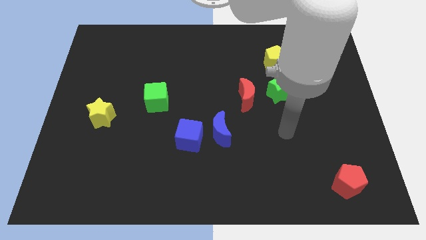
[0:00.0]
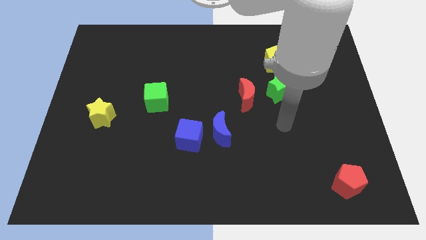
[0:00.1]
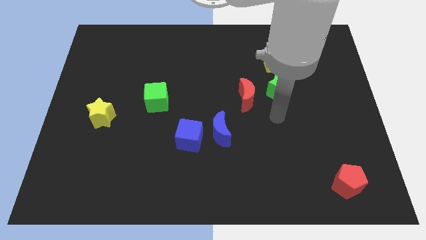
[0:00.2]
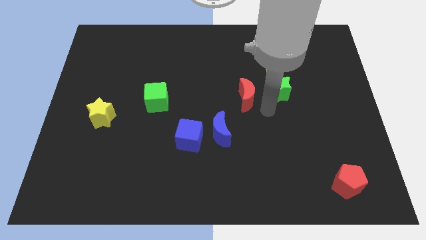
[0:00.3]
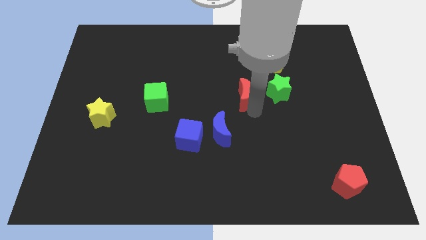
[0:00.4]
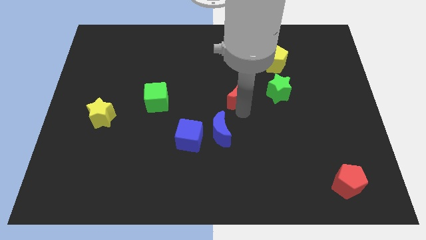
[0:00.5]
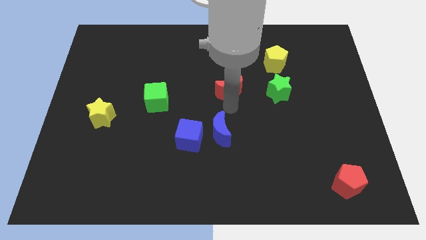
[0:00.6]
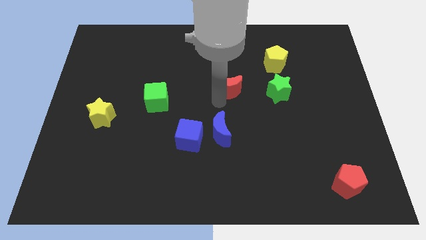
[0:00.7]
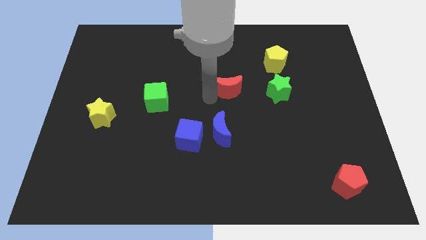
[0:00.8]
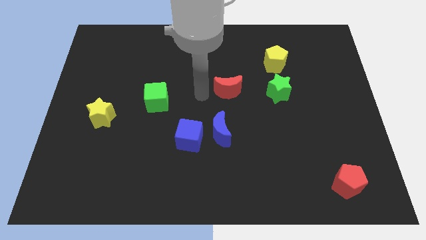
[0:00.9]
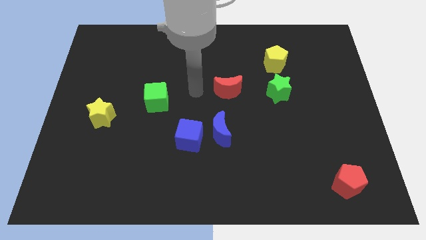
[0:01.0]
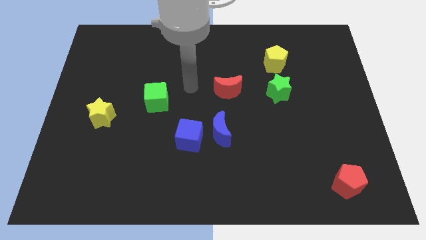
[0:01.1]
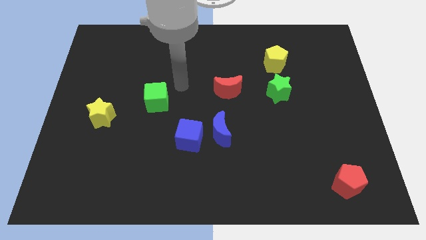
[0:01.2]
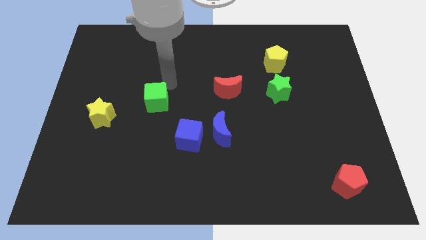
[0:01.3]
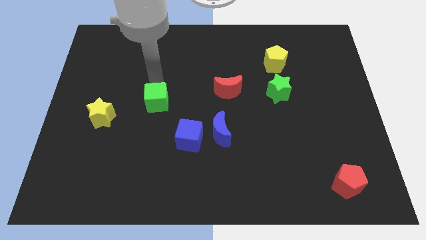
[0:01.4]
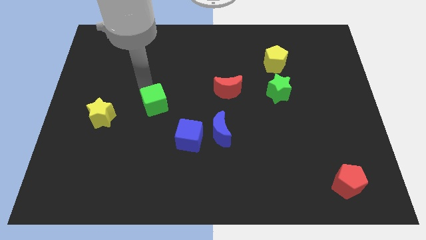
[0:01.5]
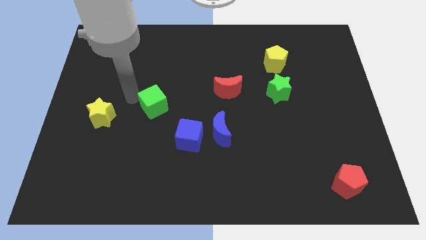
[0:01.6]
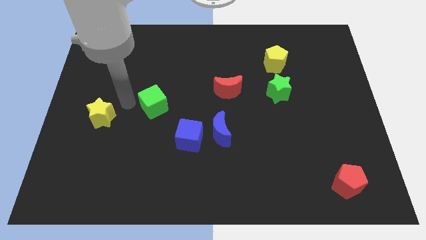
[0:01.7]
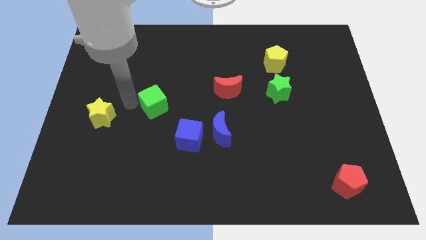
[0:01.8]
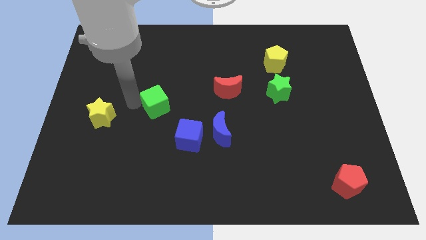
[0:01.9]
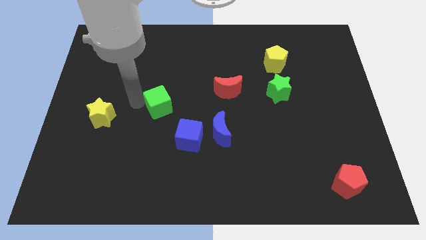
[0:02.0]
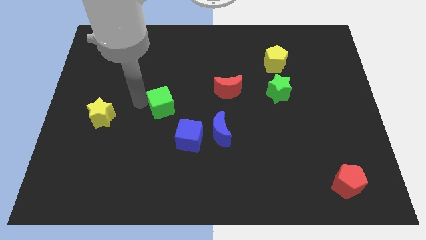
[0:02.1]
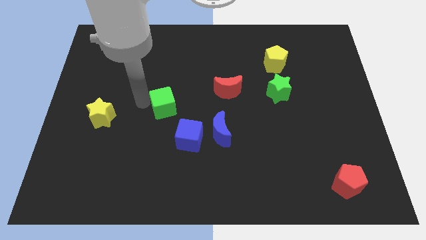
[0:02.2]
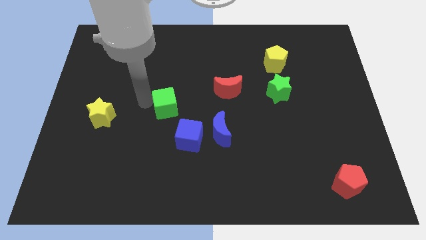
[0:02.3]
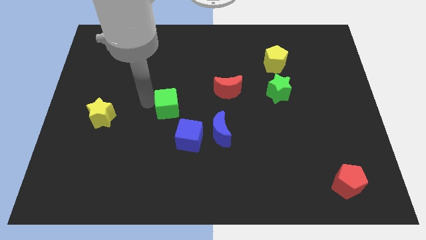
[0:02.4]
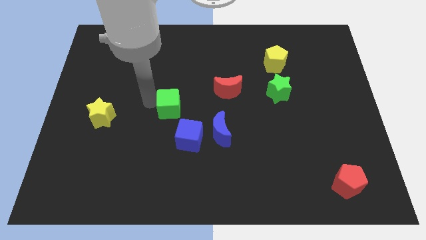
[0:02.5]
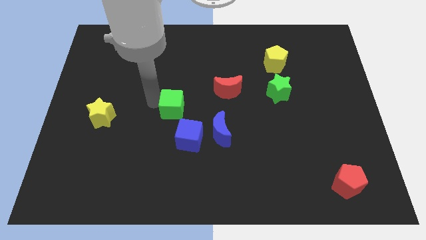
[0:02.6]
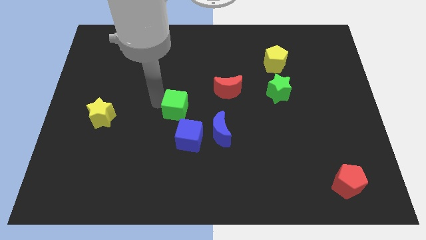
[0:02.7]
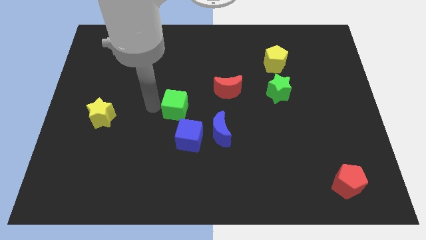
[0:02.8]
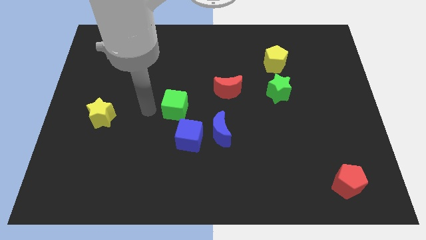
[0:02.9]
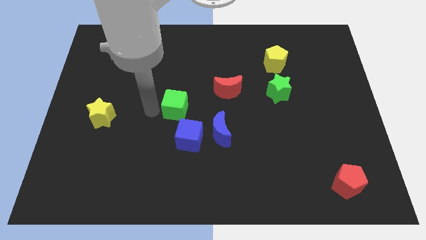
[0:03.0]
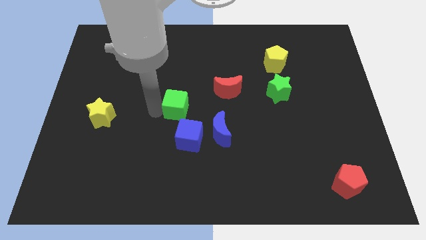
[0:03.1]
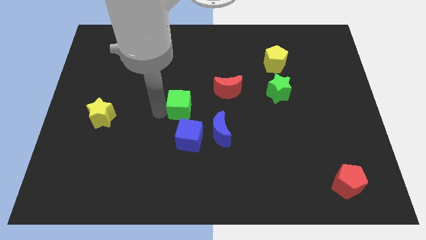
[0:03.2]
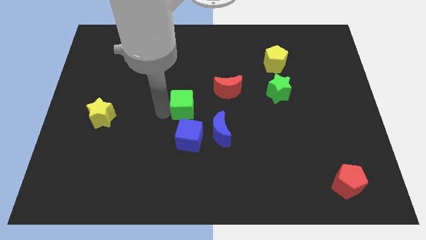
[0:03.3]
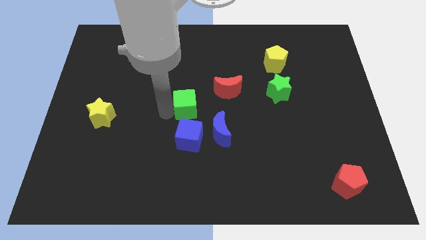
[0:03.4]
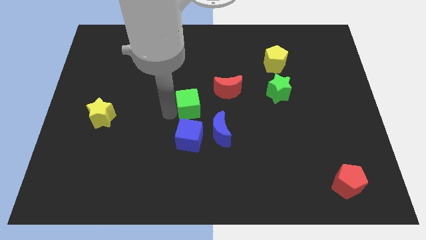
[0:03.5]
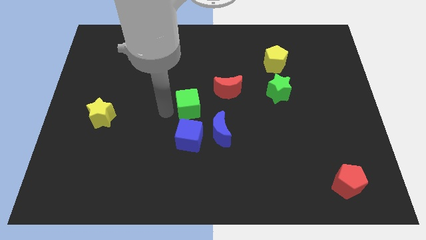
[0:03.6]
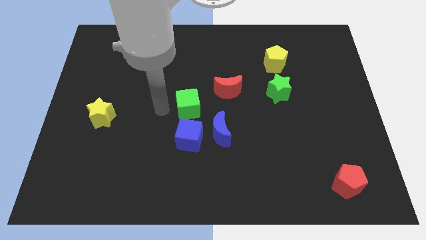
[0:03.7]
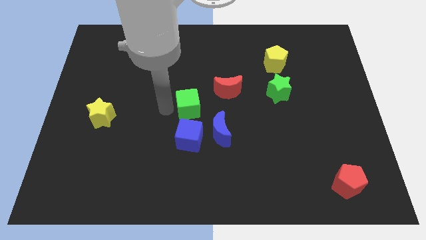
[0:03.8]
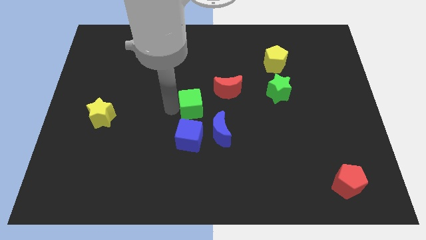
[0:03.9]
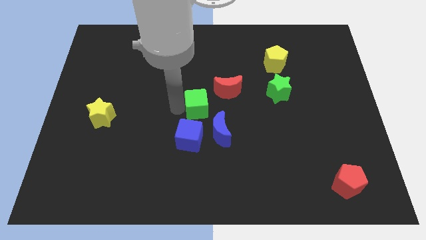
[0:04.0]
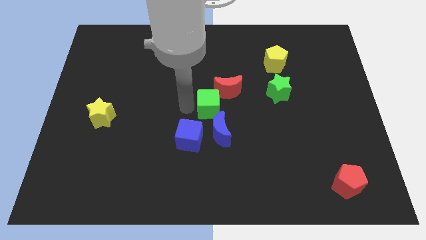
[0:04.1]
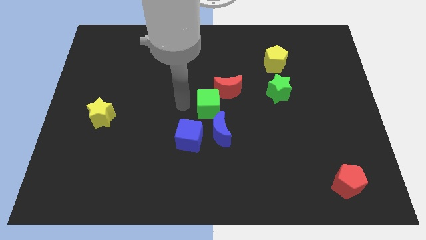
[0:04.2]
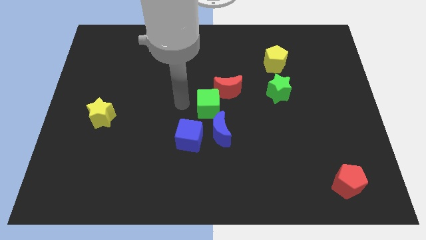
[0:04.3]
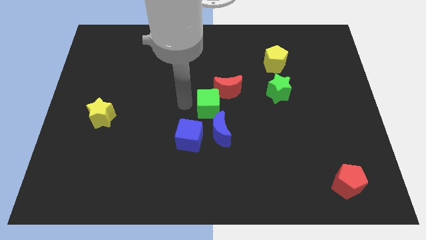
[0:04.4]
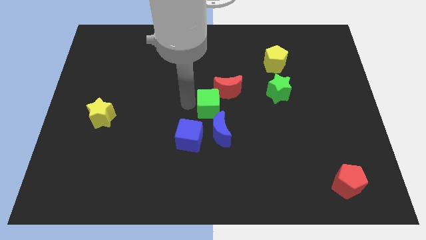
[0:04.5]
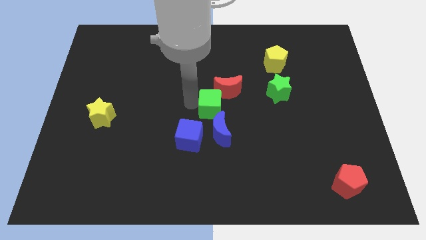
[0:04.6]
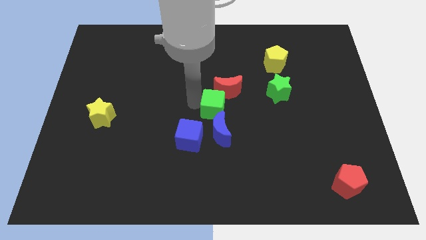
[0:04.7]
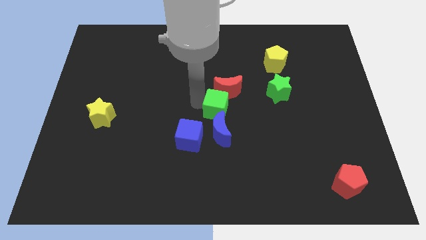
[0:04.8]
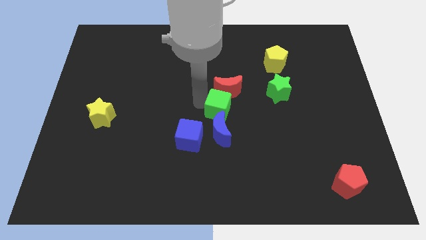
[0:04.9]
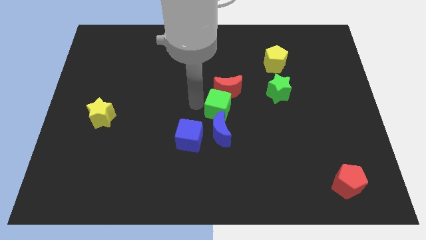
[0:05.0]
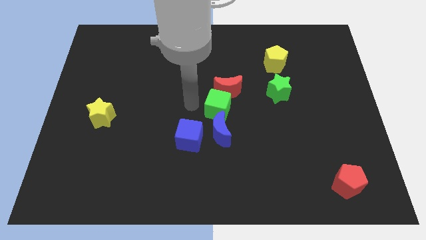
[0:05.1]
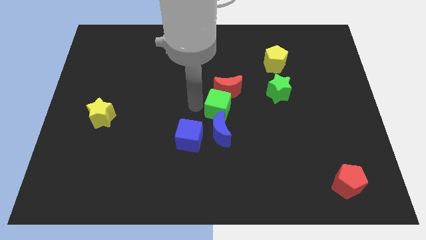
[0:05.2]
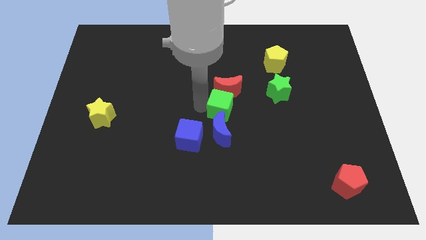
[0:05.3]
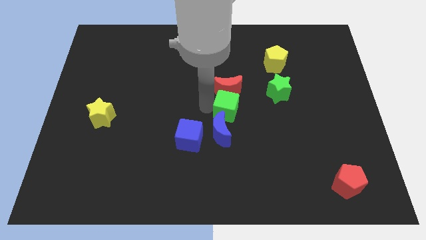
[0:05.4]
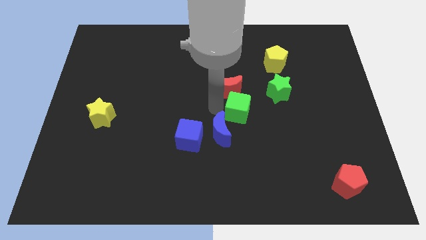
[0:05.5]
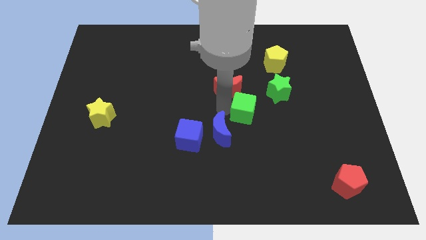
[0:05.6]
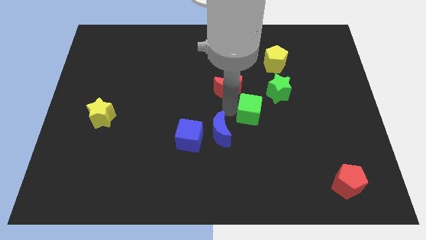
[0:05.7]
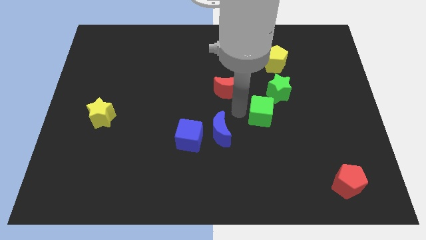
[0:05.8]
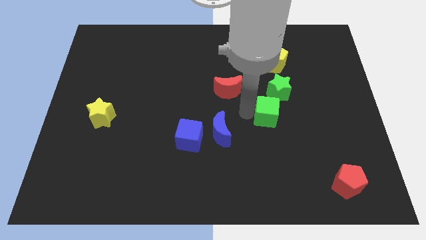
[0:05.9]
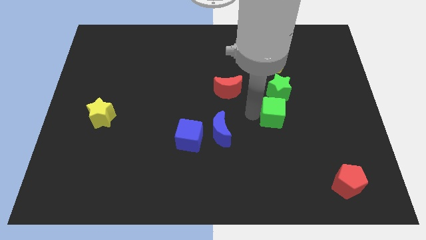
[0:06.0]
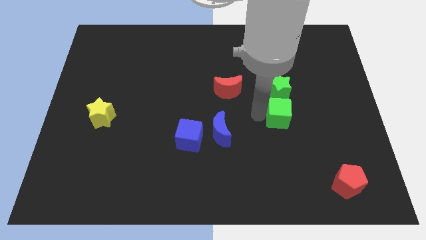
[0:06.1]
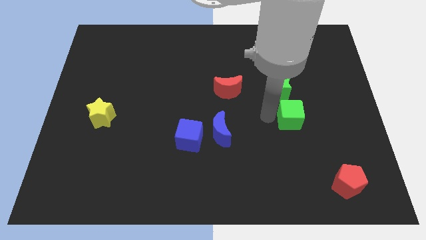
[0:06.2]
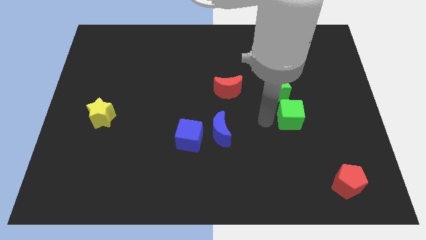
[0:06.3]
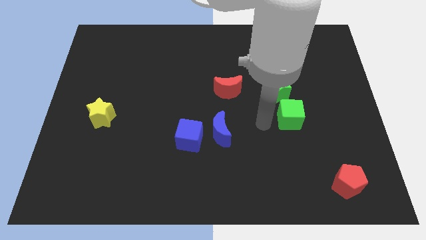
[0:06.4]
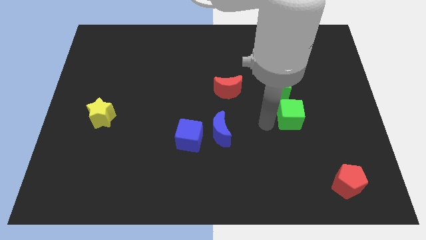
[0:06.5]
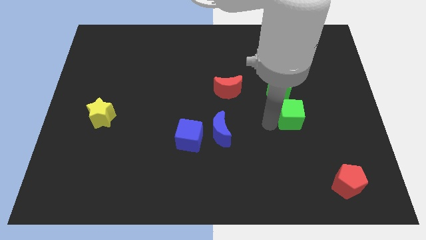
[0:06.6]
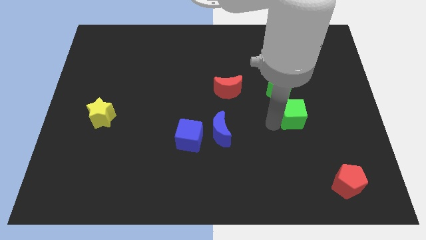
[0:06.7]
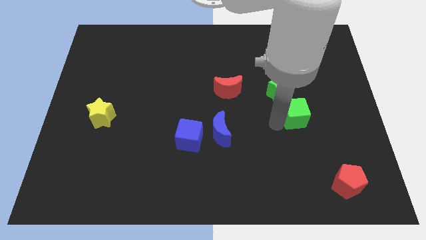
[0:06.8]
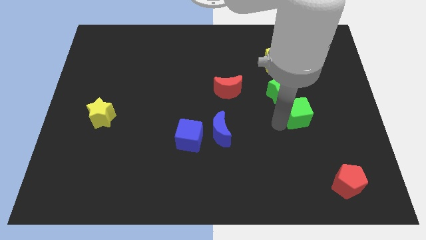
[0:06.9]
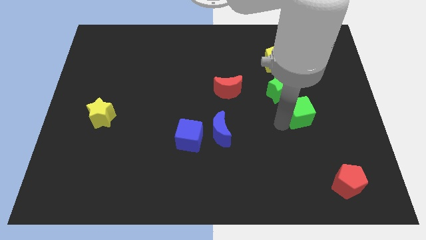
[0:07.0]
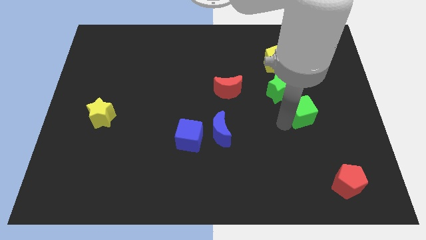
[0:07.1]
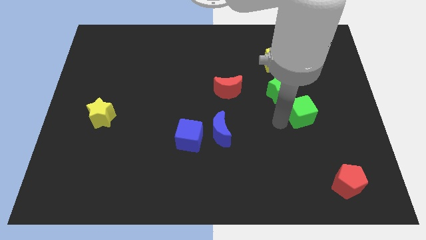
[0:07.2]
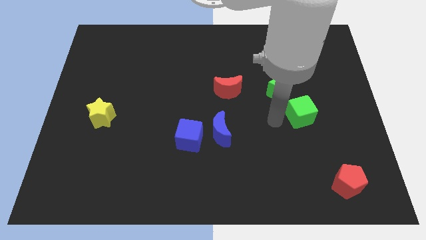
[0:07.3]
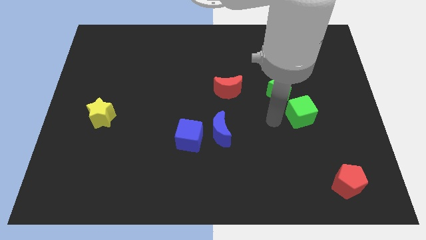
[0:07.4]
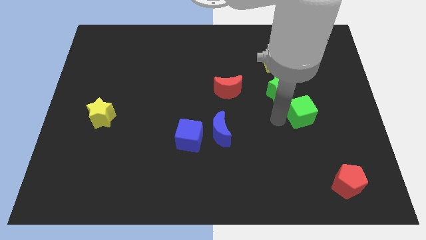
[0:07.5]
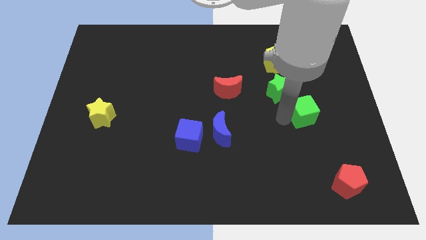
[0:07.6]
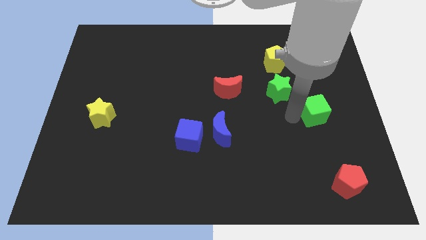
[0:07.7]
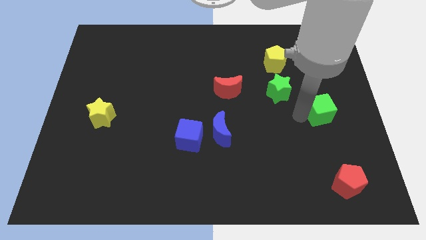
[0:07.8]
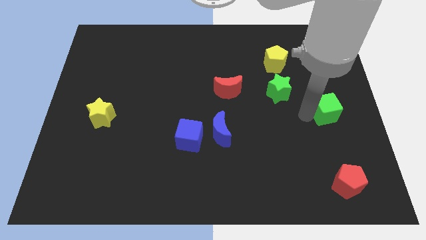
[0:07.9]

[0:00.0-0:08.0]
move the green cube to the right side of the board
